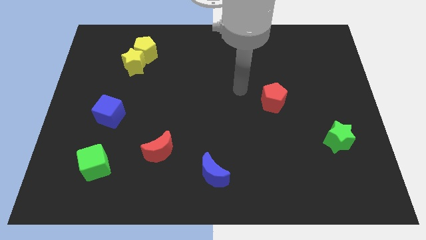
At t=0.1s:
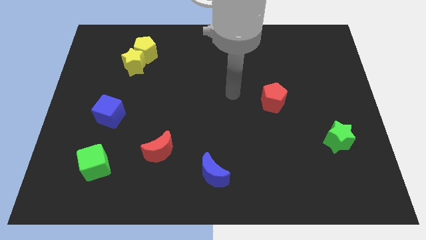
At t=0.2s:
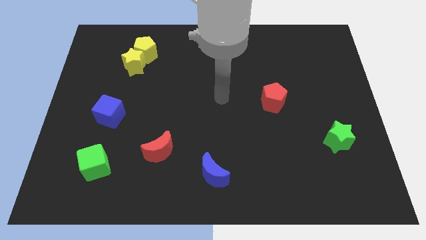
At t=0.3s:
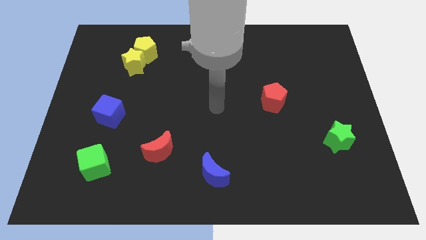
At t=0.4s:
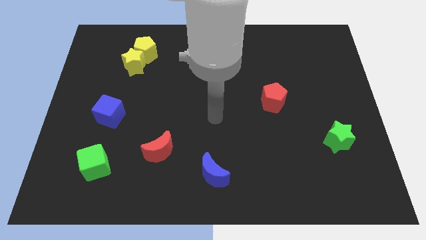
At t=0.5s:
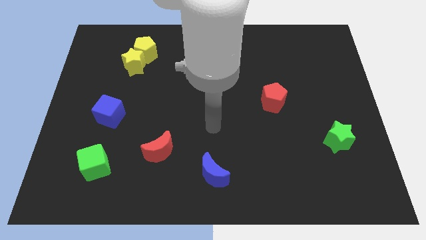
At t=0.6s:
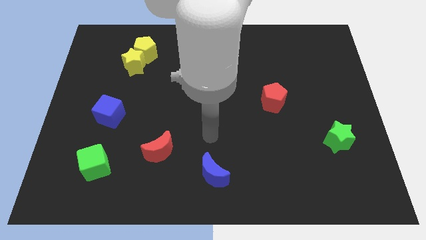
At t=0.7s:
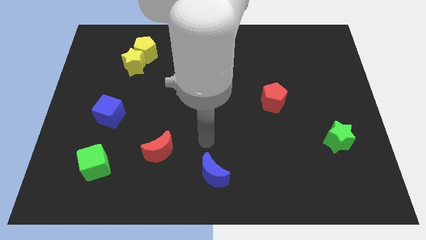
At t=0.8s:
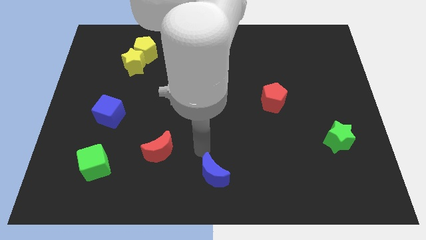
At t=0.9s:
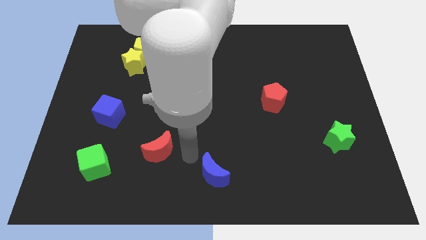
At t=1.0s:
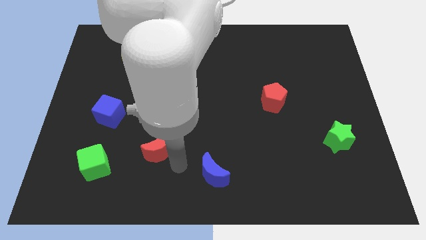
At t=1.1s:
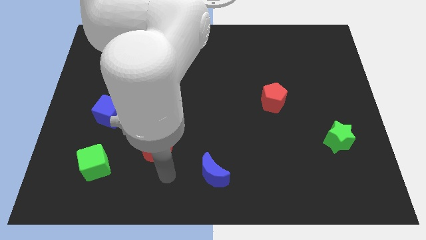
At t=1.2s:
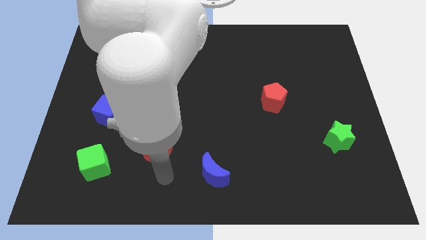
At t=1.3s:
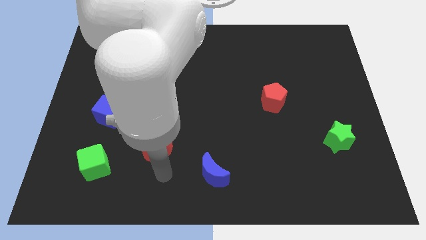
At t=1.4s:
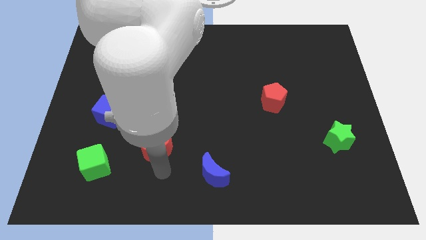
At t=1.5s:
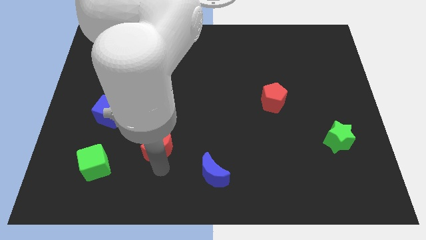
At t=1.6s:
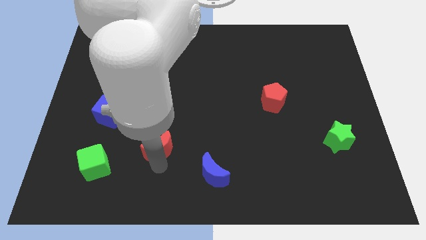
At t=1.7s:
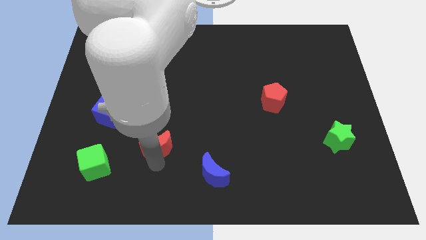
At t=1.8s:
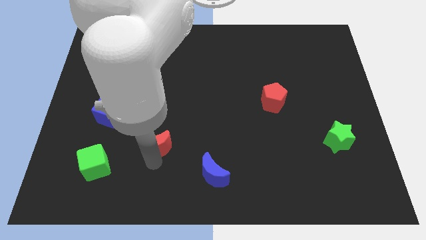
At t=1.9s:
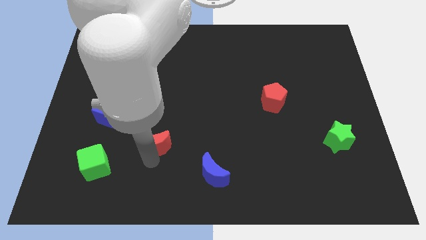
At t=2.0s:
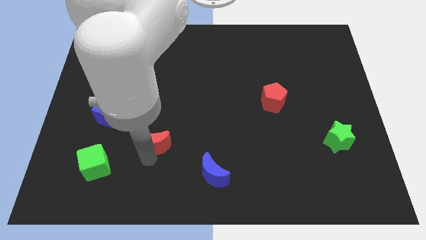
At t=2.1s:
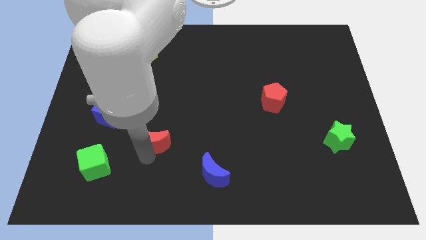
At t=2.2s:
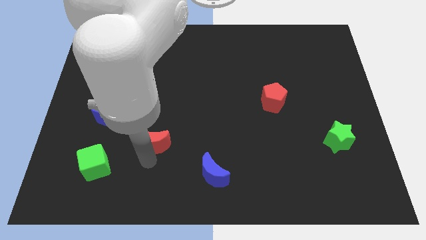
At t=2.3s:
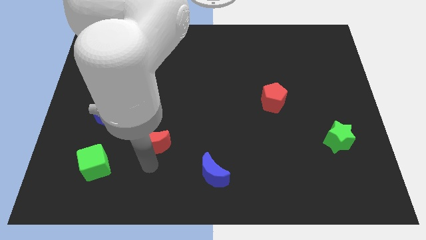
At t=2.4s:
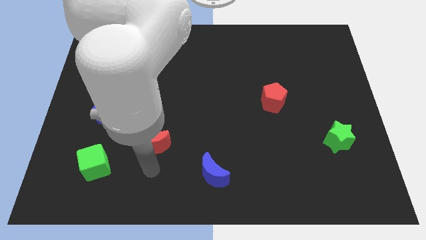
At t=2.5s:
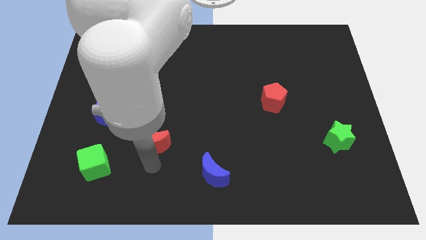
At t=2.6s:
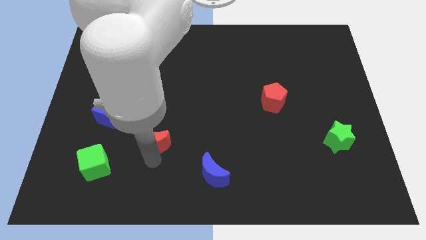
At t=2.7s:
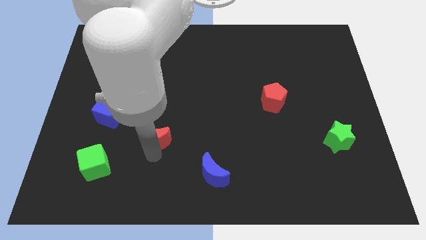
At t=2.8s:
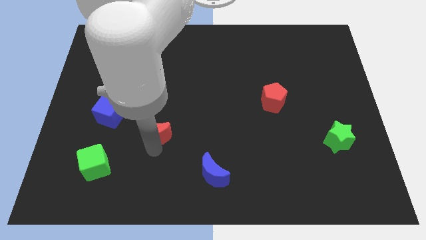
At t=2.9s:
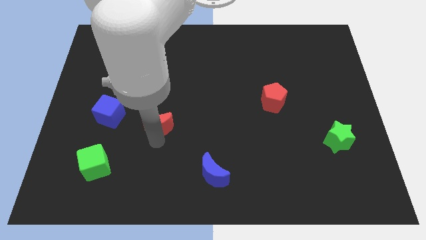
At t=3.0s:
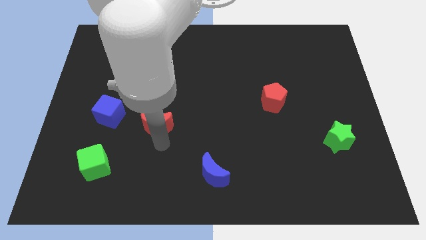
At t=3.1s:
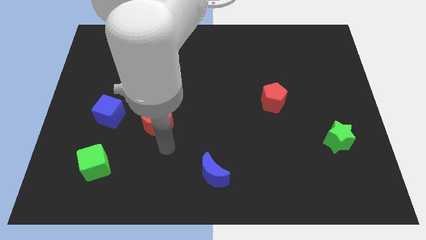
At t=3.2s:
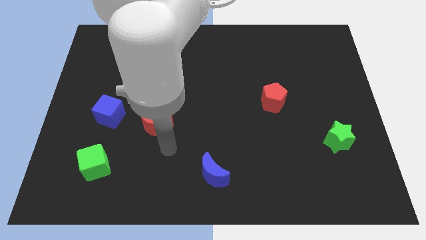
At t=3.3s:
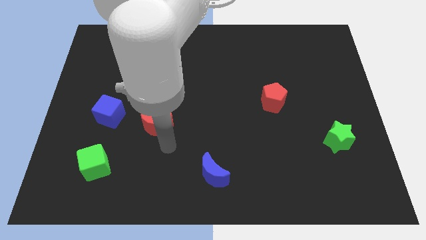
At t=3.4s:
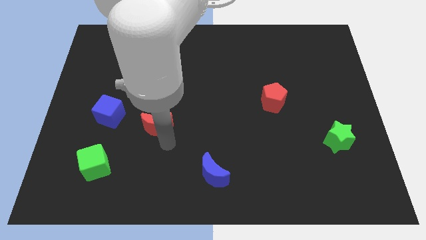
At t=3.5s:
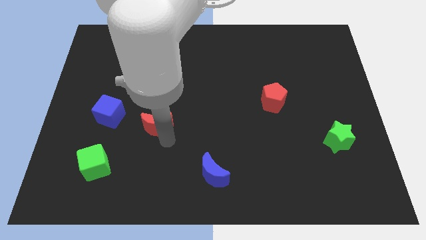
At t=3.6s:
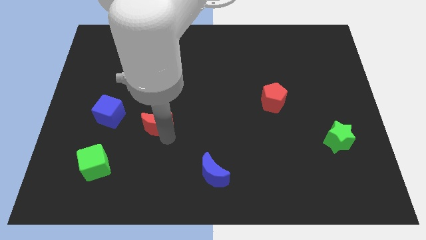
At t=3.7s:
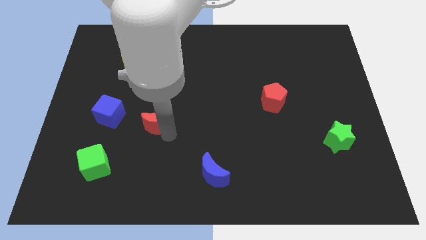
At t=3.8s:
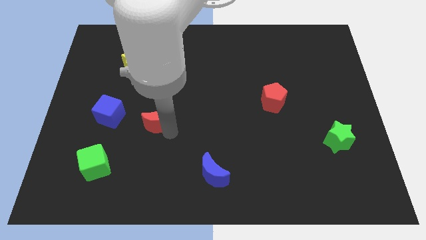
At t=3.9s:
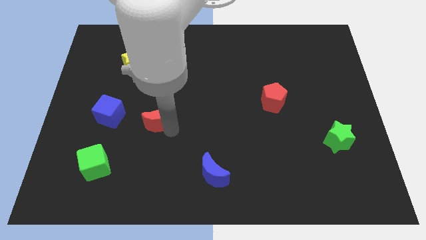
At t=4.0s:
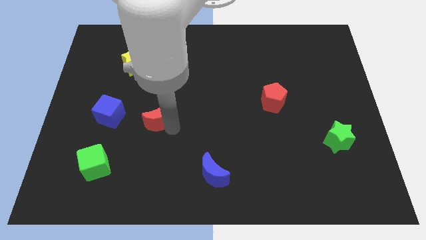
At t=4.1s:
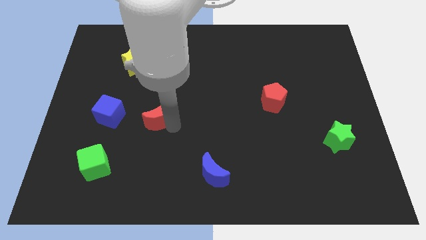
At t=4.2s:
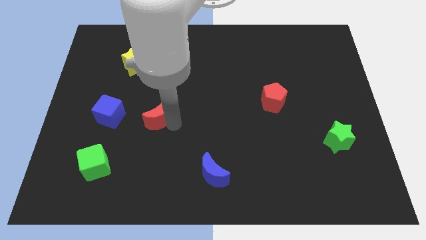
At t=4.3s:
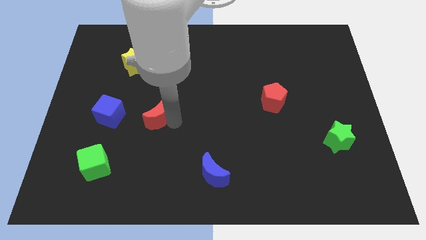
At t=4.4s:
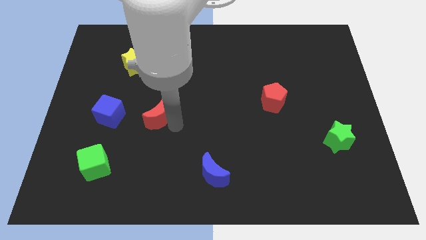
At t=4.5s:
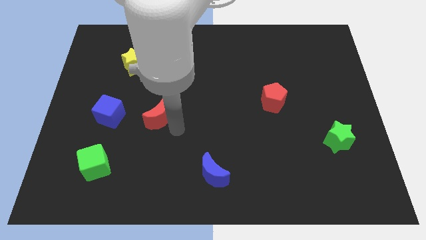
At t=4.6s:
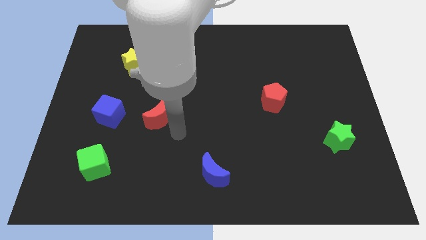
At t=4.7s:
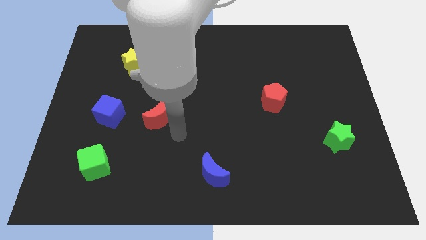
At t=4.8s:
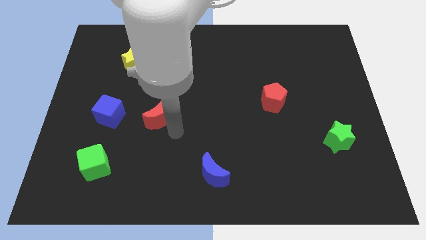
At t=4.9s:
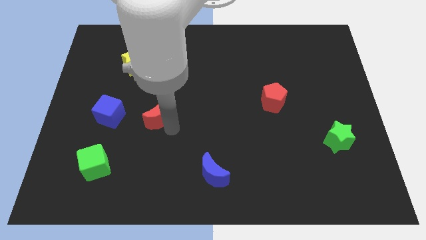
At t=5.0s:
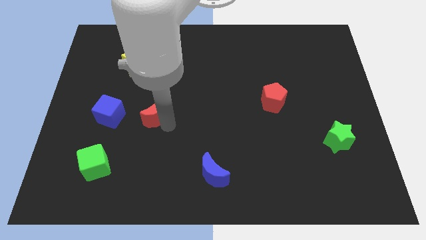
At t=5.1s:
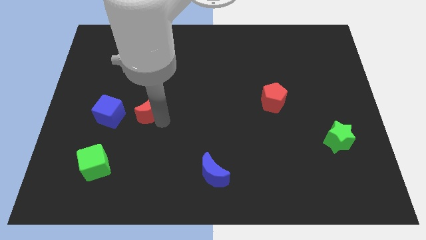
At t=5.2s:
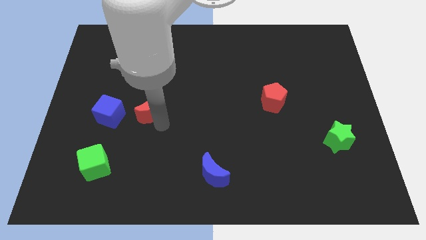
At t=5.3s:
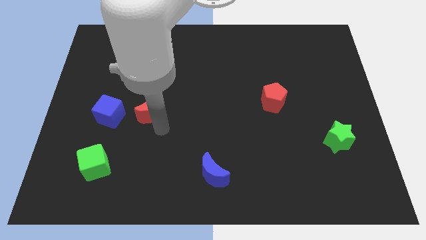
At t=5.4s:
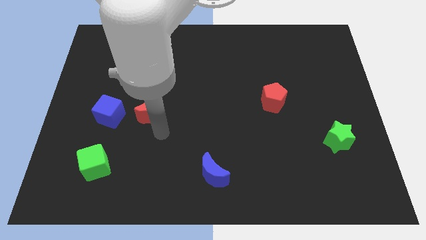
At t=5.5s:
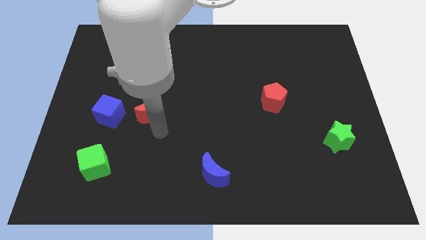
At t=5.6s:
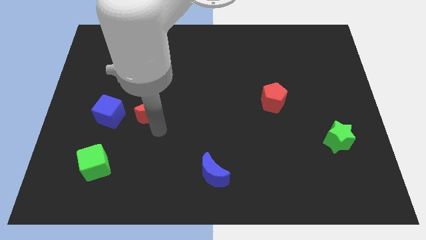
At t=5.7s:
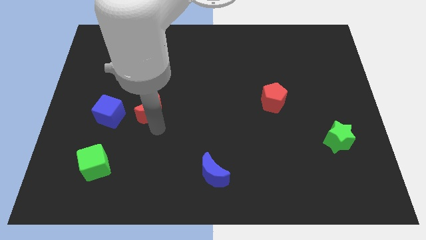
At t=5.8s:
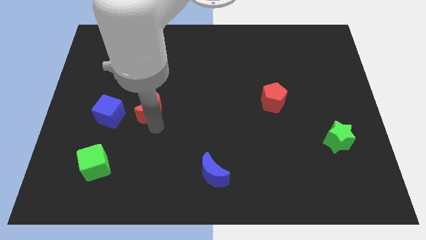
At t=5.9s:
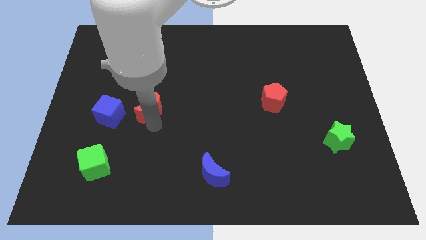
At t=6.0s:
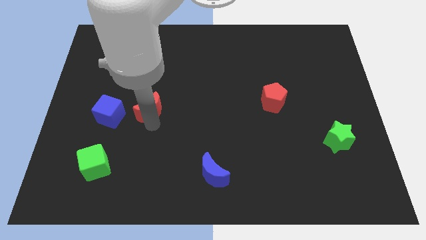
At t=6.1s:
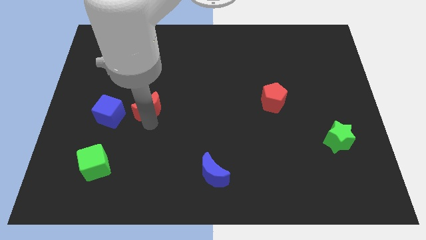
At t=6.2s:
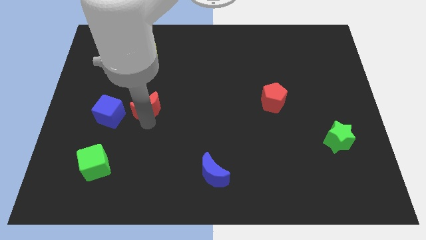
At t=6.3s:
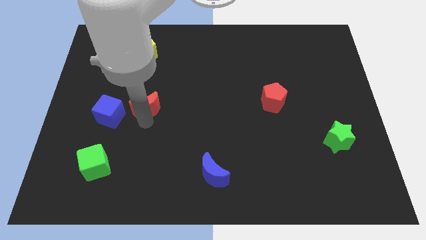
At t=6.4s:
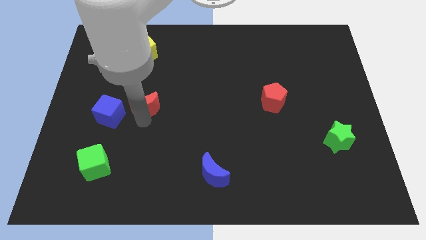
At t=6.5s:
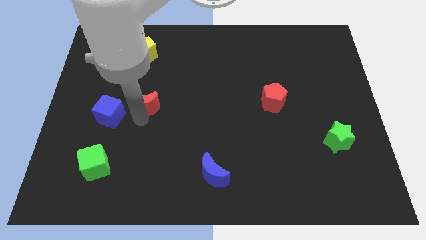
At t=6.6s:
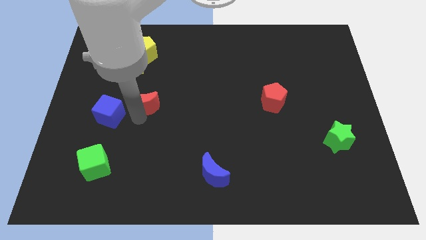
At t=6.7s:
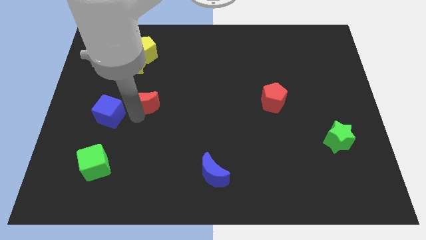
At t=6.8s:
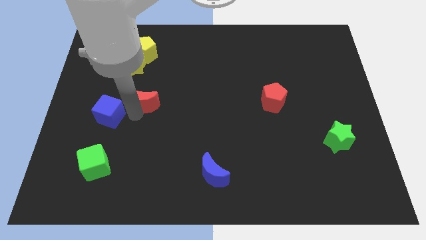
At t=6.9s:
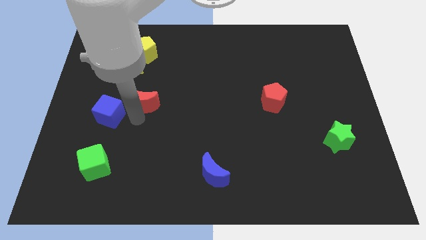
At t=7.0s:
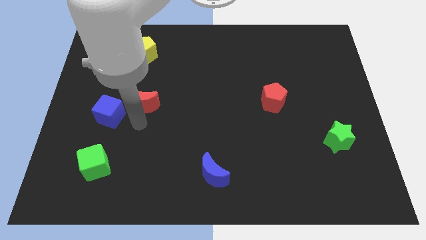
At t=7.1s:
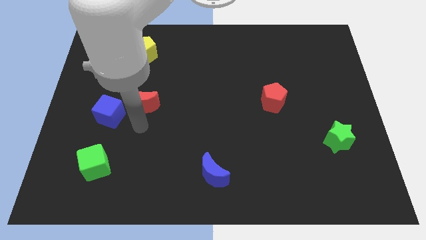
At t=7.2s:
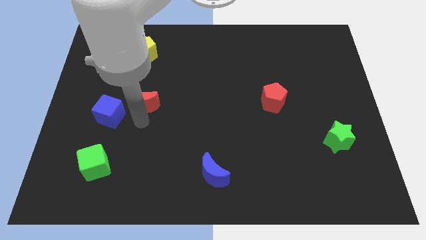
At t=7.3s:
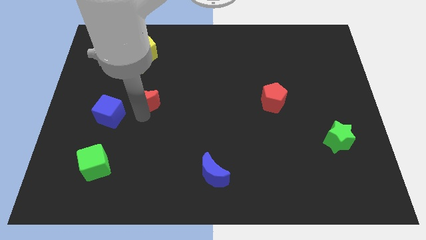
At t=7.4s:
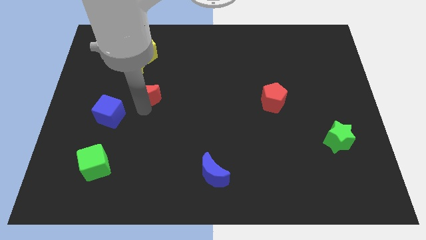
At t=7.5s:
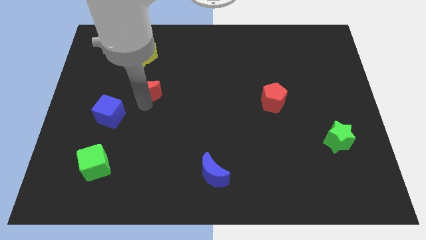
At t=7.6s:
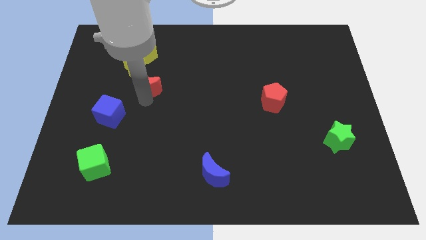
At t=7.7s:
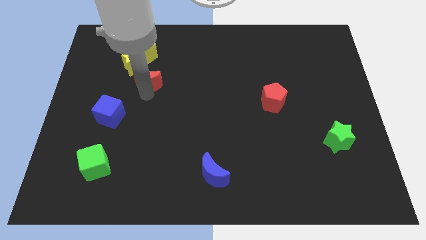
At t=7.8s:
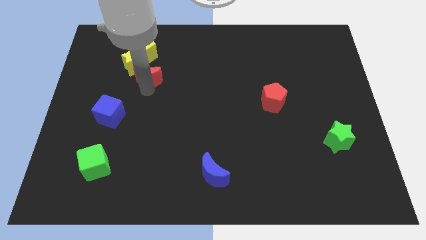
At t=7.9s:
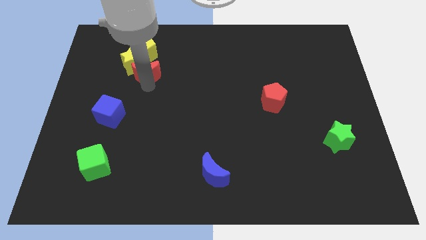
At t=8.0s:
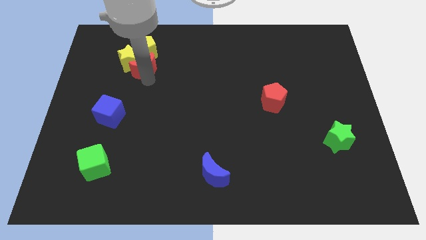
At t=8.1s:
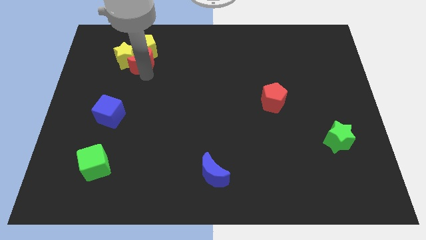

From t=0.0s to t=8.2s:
put the red moon to the yellow pentagon
